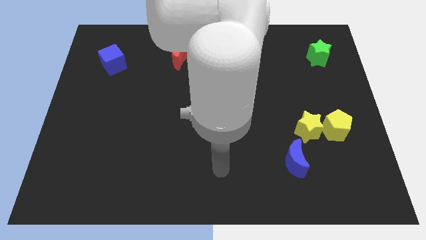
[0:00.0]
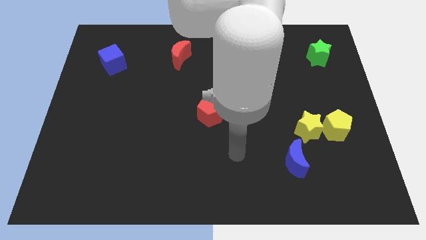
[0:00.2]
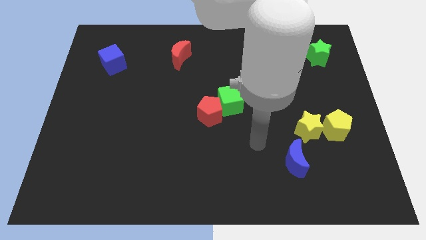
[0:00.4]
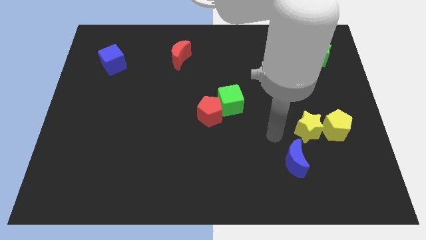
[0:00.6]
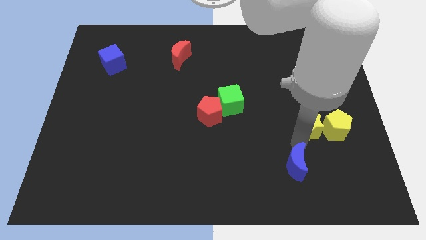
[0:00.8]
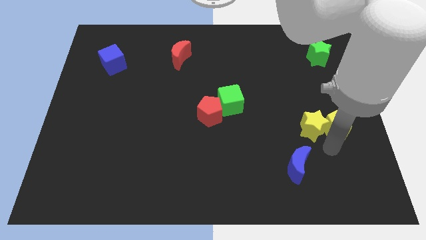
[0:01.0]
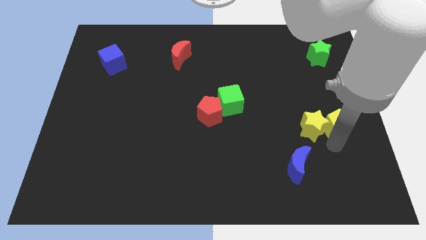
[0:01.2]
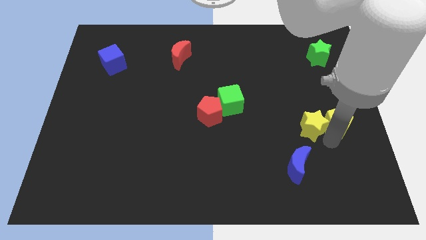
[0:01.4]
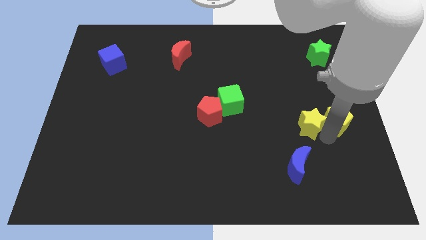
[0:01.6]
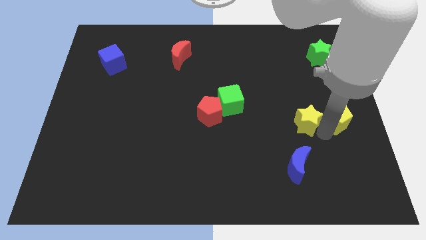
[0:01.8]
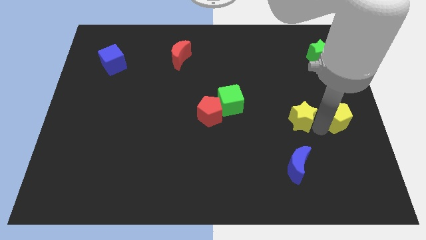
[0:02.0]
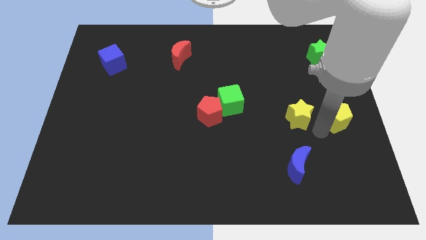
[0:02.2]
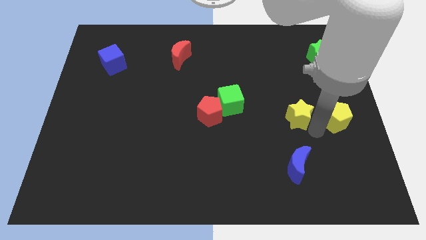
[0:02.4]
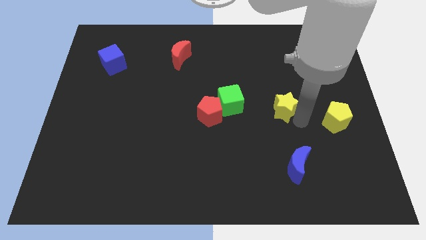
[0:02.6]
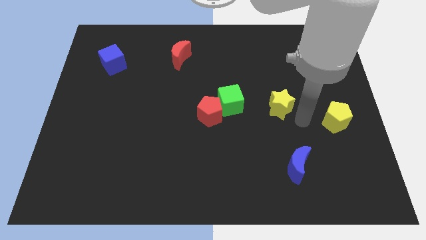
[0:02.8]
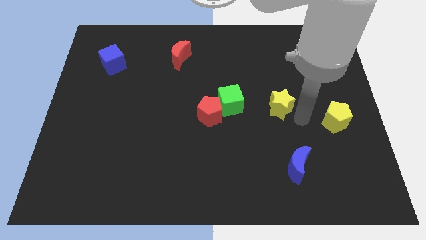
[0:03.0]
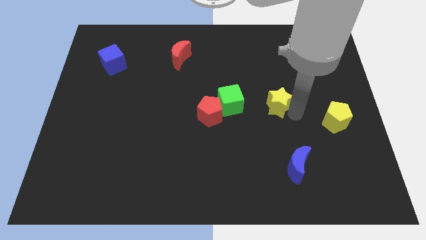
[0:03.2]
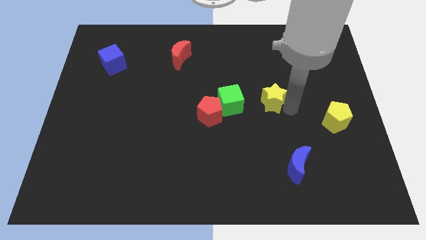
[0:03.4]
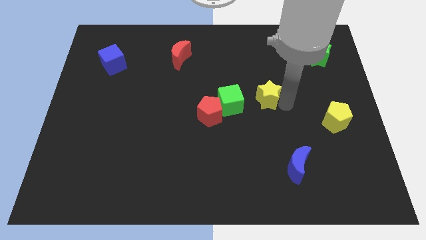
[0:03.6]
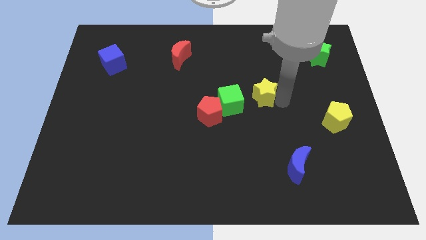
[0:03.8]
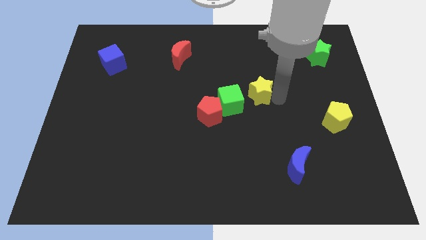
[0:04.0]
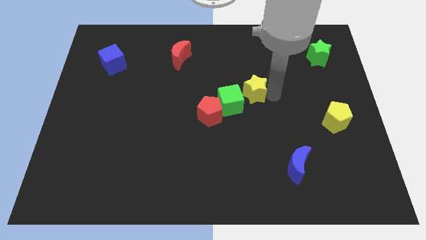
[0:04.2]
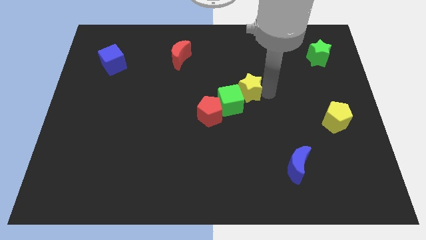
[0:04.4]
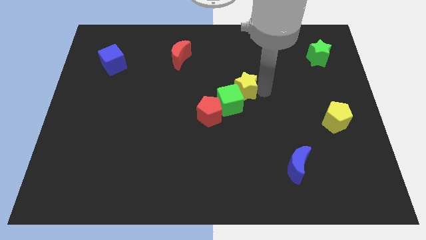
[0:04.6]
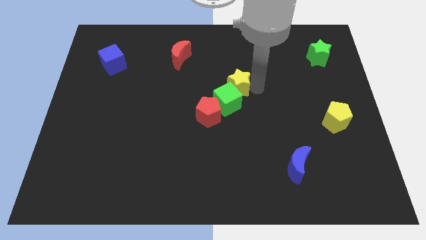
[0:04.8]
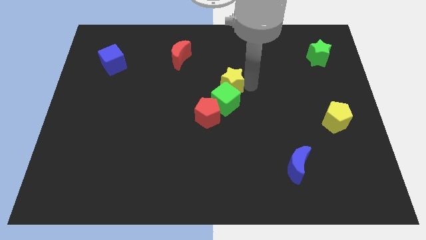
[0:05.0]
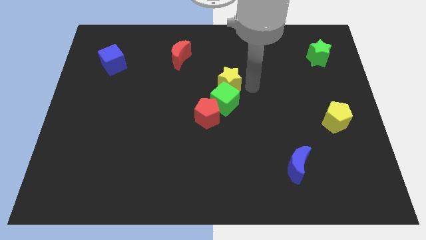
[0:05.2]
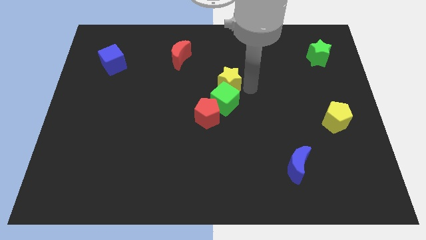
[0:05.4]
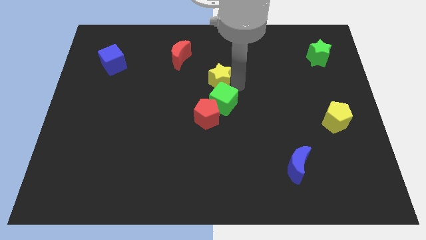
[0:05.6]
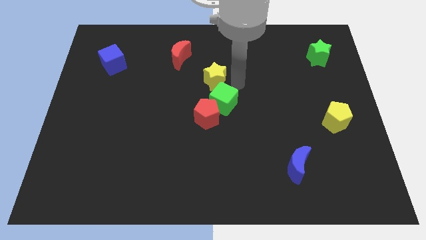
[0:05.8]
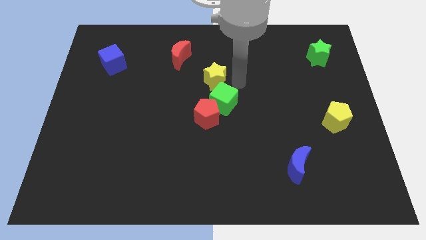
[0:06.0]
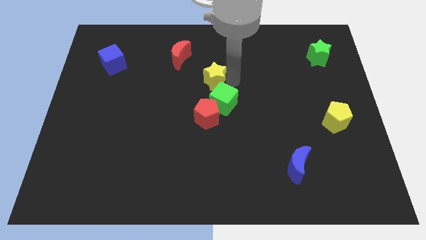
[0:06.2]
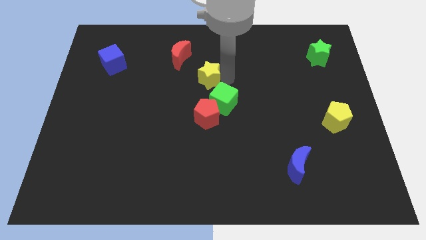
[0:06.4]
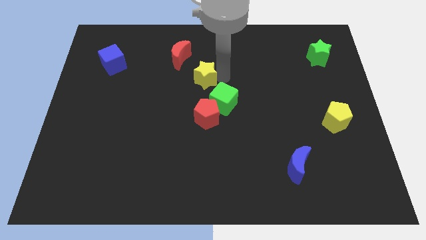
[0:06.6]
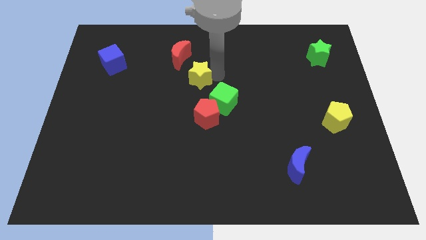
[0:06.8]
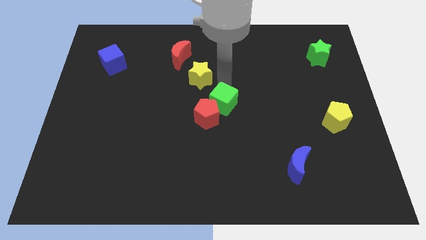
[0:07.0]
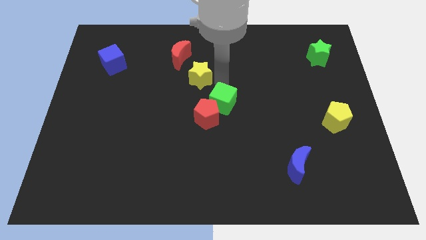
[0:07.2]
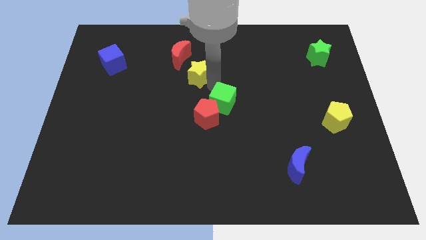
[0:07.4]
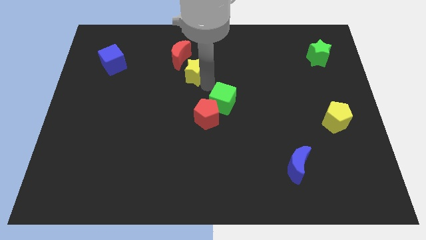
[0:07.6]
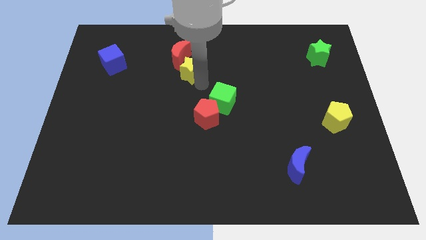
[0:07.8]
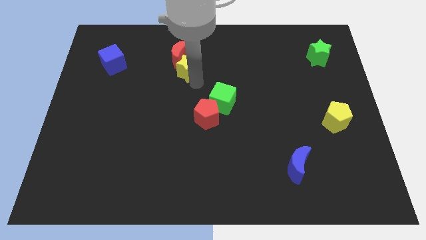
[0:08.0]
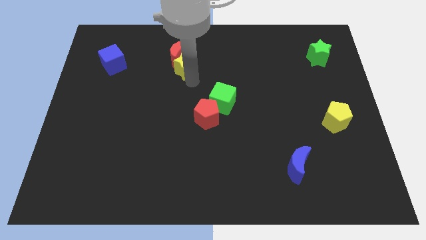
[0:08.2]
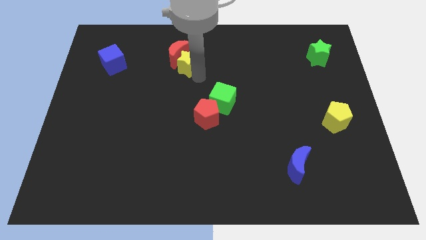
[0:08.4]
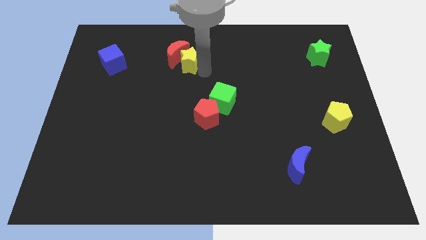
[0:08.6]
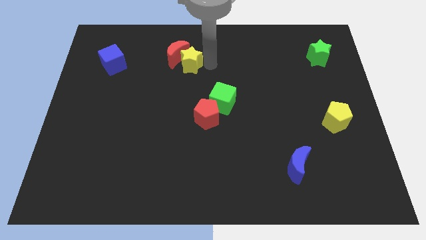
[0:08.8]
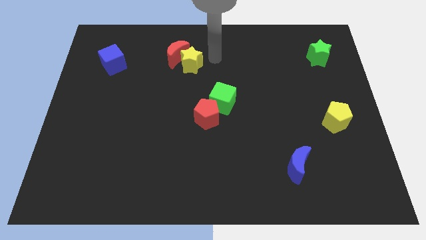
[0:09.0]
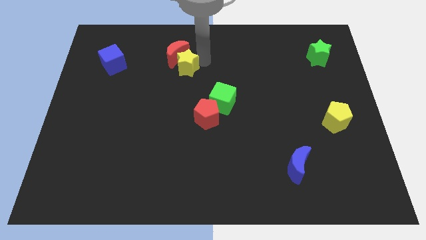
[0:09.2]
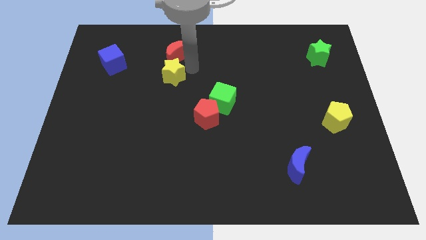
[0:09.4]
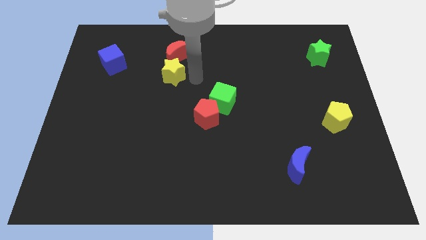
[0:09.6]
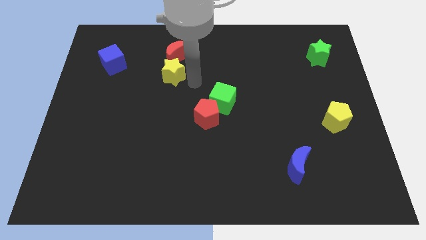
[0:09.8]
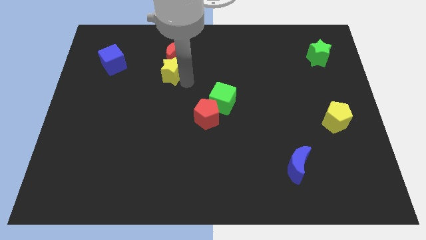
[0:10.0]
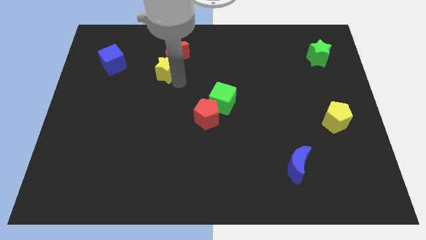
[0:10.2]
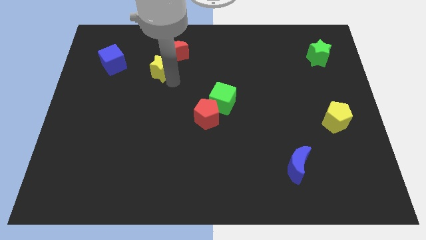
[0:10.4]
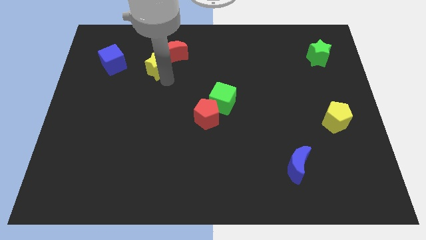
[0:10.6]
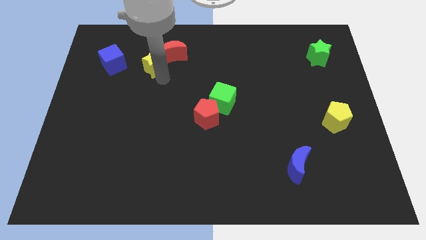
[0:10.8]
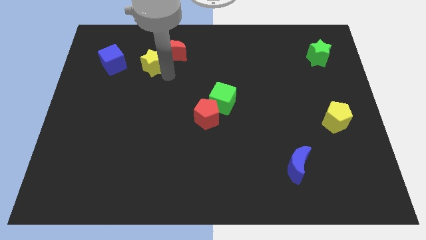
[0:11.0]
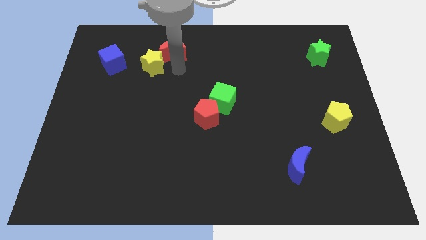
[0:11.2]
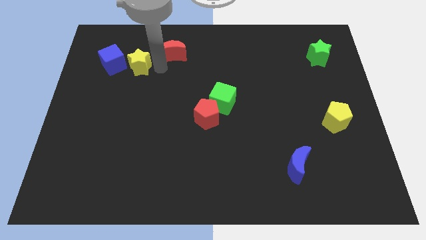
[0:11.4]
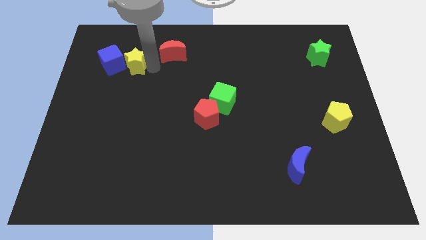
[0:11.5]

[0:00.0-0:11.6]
slide the yellow star close to the blue cube
